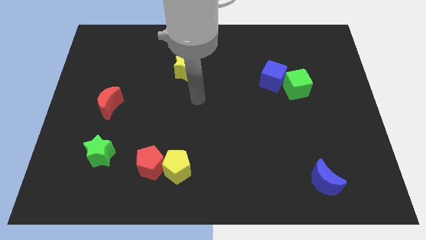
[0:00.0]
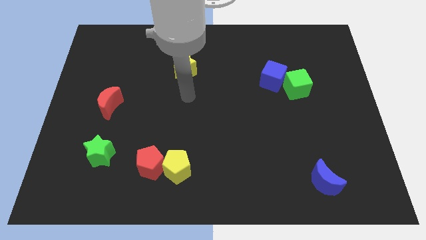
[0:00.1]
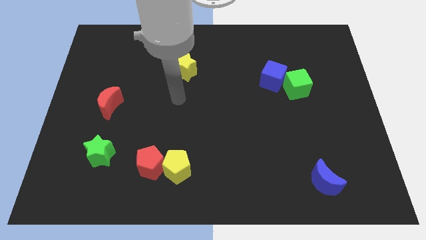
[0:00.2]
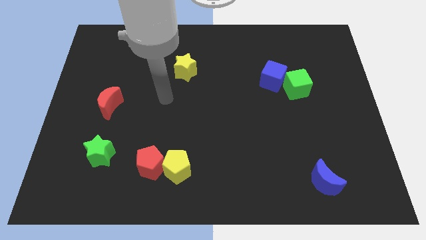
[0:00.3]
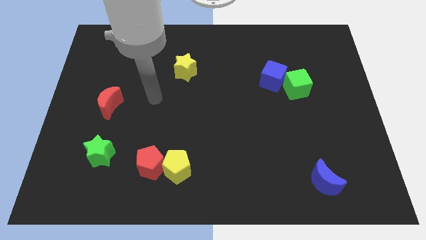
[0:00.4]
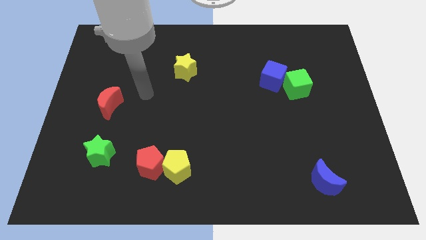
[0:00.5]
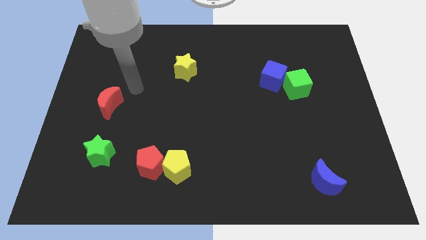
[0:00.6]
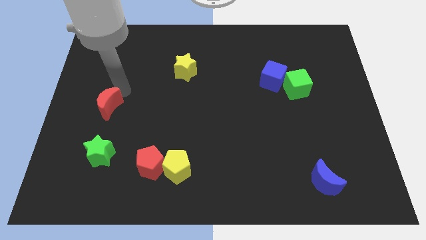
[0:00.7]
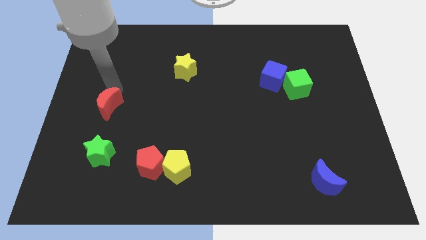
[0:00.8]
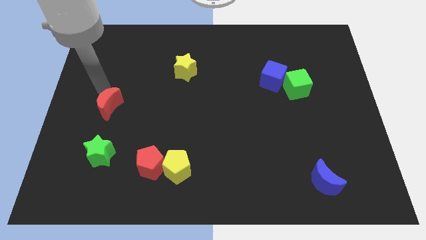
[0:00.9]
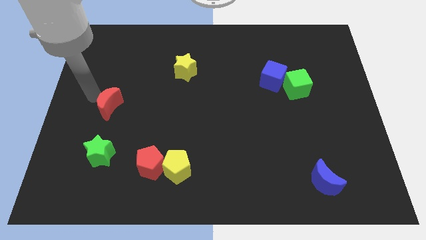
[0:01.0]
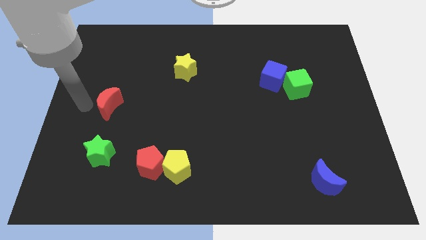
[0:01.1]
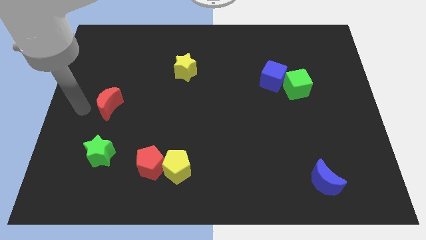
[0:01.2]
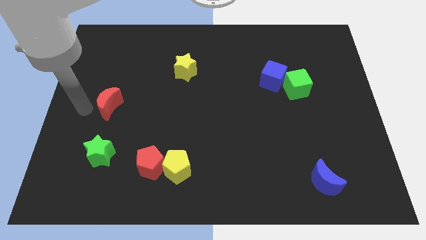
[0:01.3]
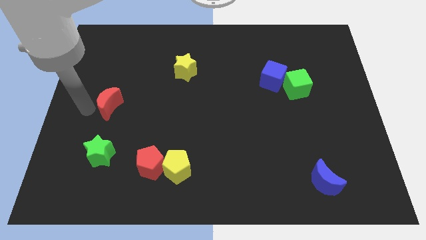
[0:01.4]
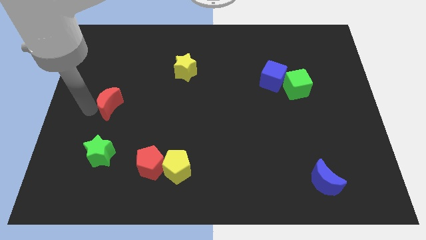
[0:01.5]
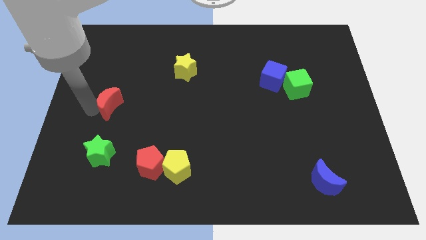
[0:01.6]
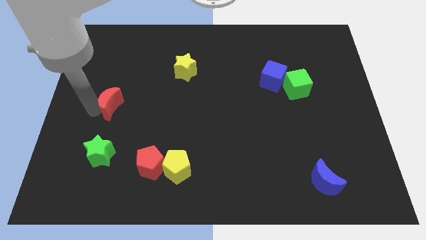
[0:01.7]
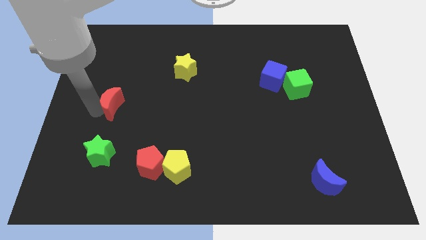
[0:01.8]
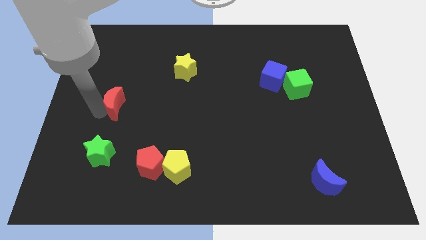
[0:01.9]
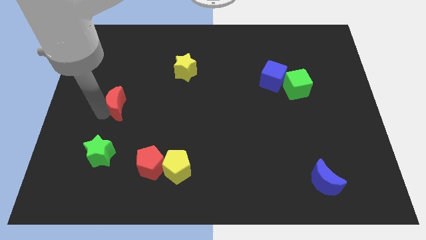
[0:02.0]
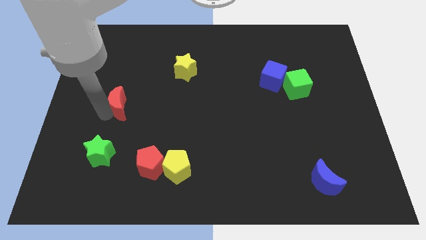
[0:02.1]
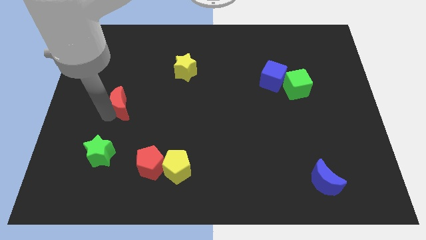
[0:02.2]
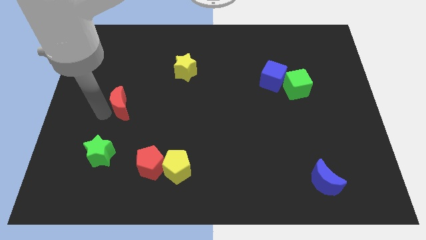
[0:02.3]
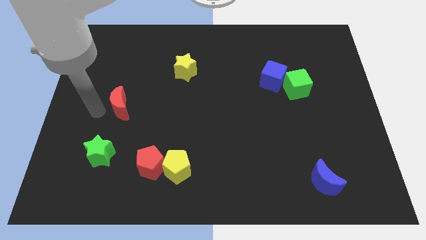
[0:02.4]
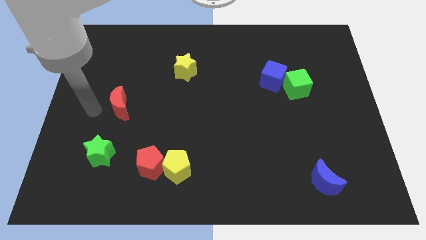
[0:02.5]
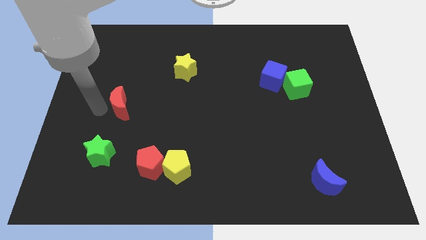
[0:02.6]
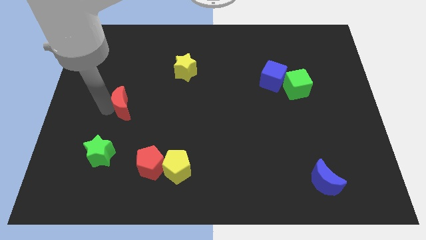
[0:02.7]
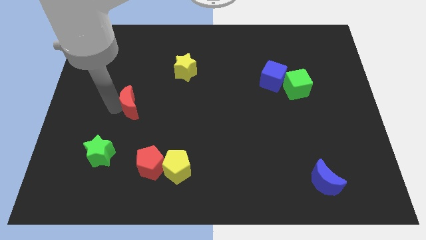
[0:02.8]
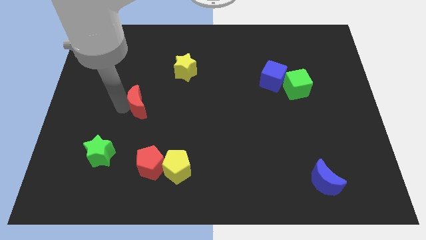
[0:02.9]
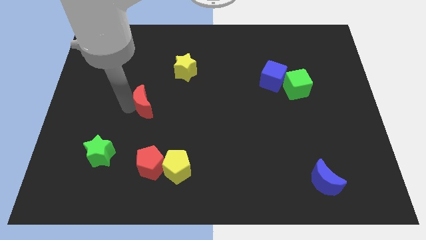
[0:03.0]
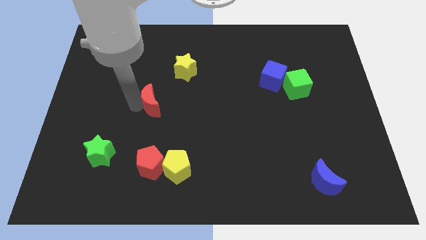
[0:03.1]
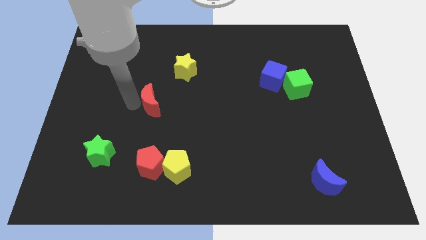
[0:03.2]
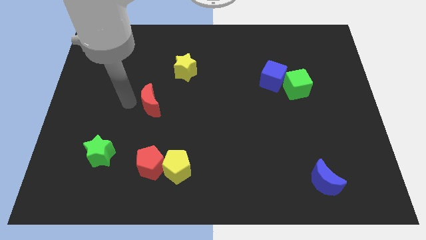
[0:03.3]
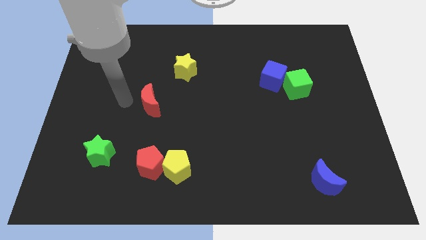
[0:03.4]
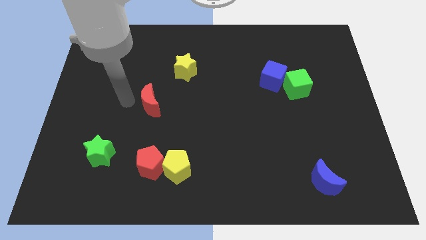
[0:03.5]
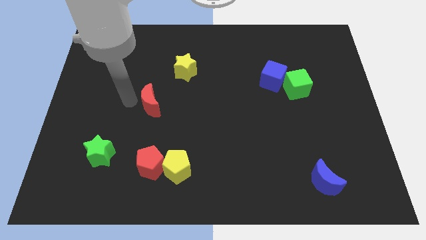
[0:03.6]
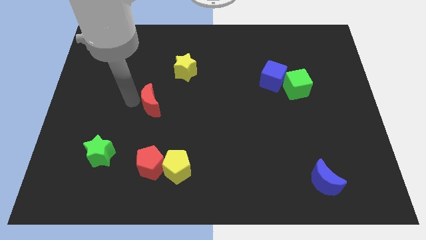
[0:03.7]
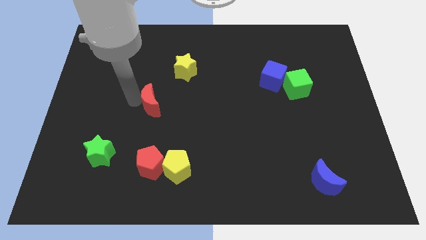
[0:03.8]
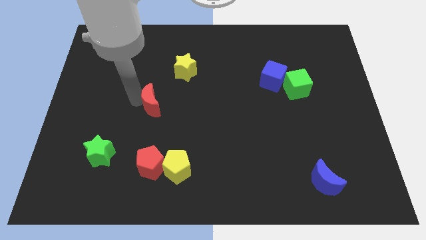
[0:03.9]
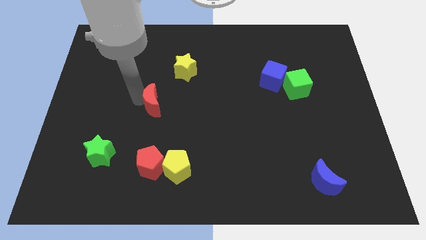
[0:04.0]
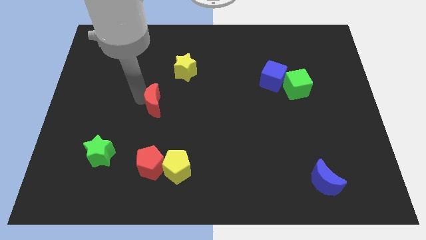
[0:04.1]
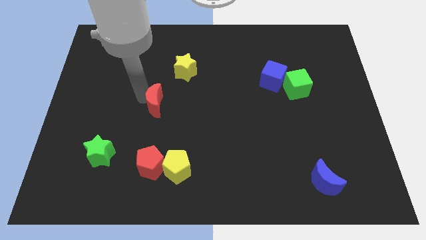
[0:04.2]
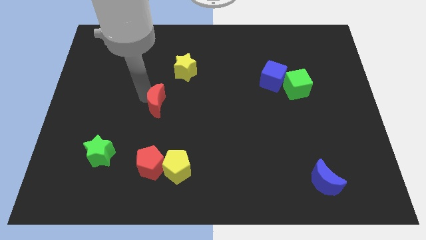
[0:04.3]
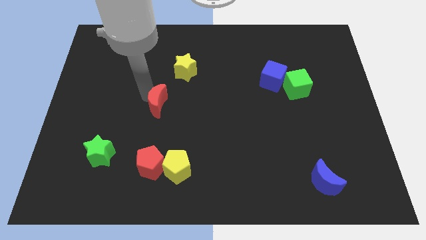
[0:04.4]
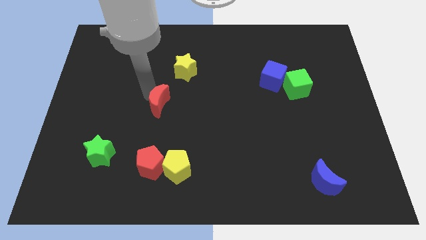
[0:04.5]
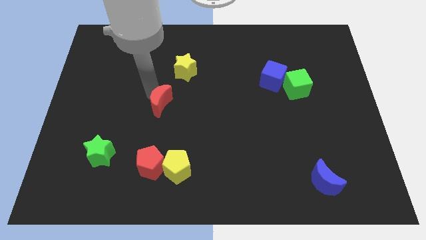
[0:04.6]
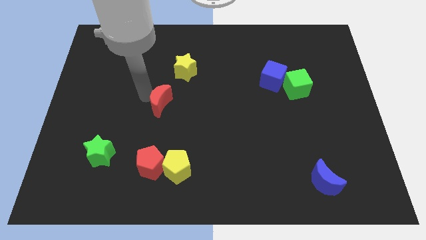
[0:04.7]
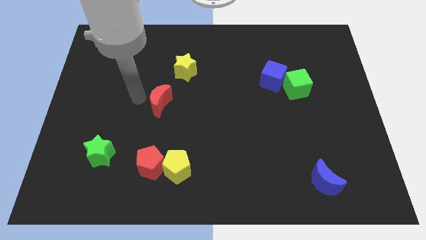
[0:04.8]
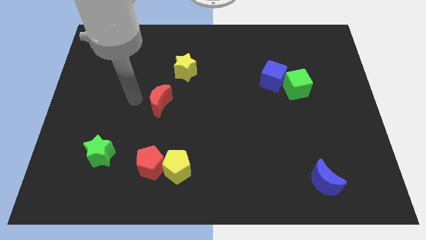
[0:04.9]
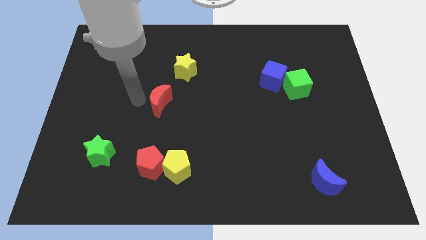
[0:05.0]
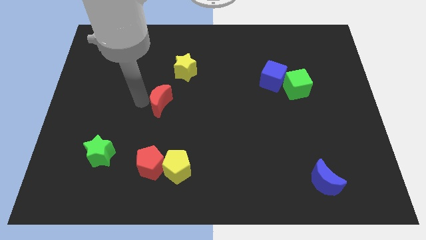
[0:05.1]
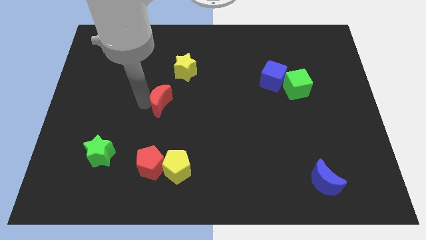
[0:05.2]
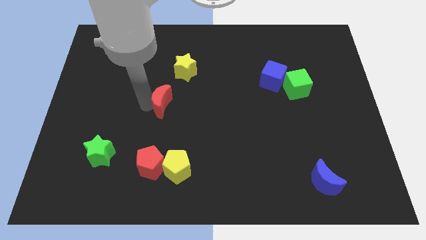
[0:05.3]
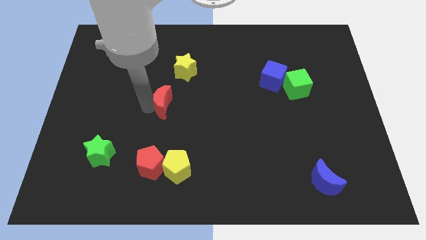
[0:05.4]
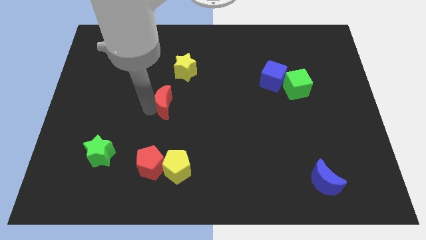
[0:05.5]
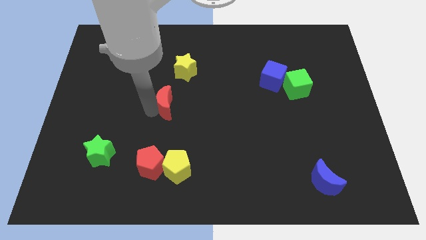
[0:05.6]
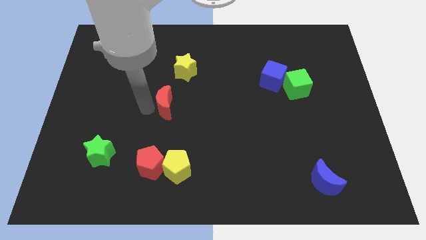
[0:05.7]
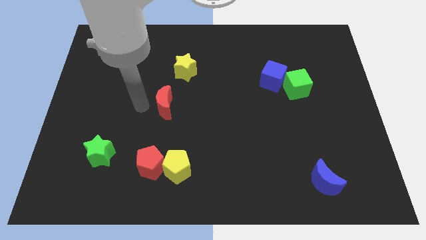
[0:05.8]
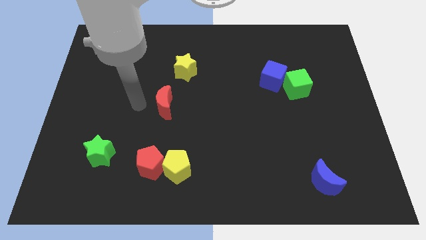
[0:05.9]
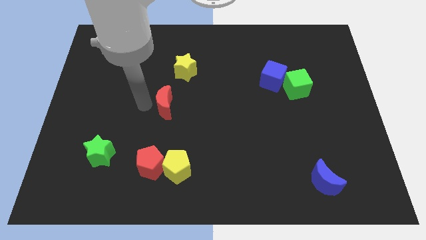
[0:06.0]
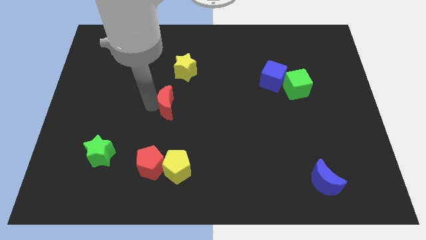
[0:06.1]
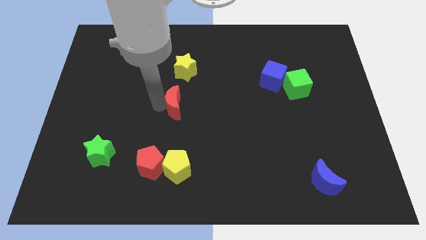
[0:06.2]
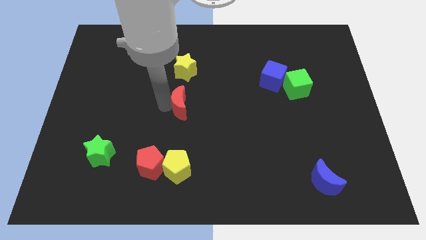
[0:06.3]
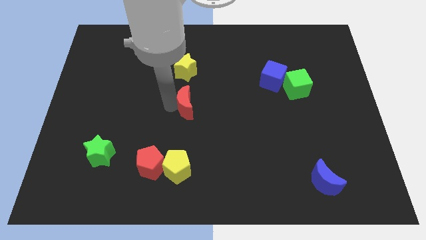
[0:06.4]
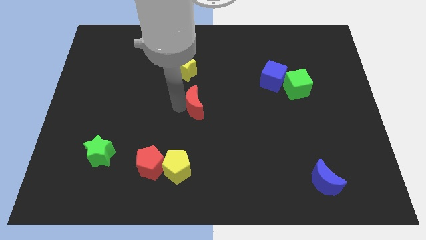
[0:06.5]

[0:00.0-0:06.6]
move the red moon to the right

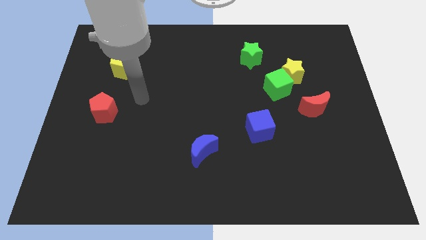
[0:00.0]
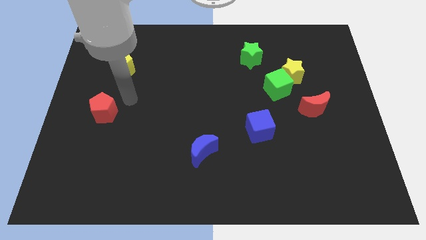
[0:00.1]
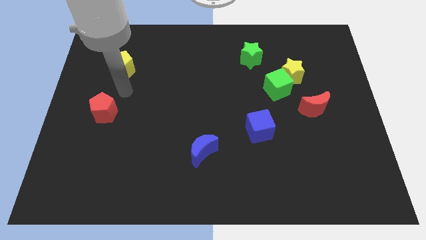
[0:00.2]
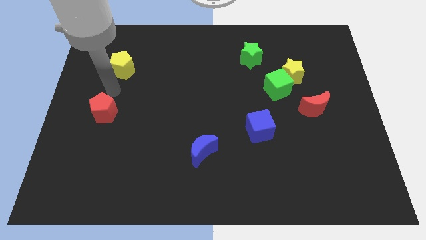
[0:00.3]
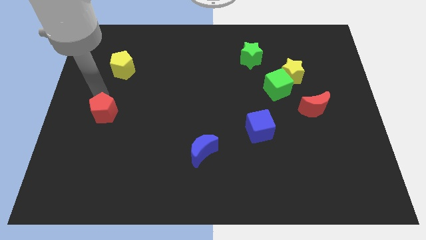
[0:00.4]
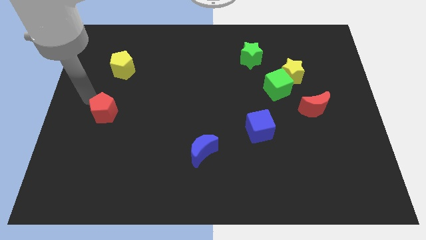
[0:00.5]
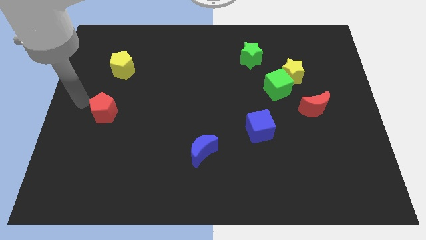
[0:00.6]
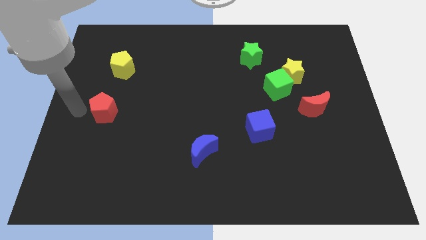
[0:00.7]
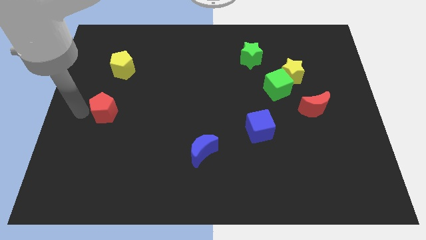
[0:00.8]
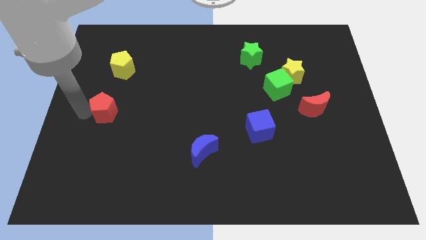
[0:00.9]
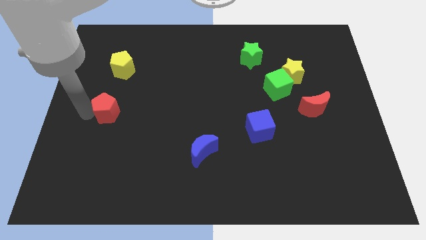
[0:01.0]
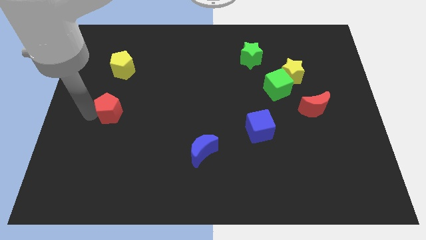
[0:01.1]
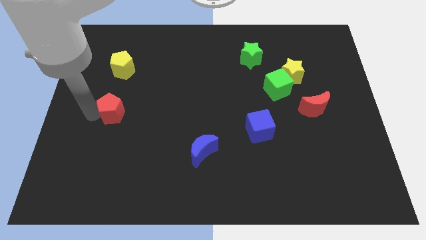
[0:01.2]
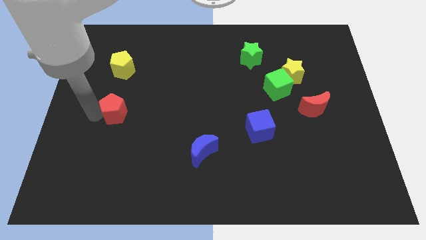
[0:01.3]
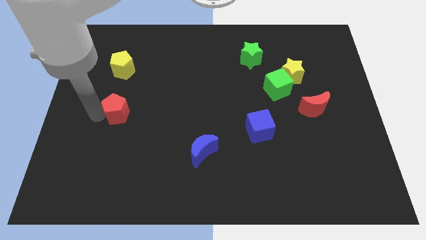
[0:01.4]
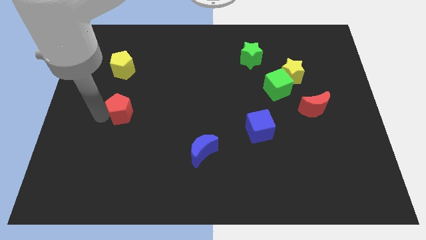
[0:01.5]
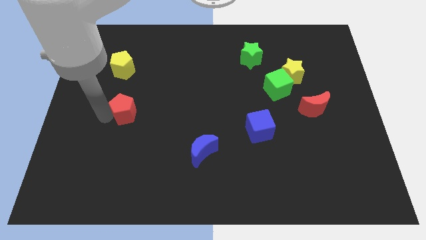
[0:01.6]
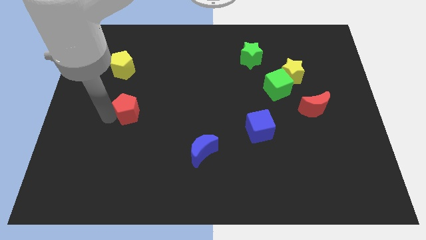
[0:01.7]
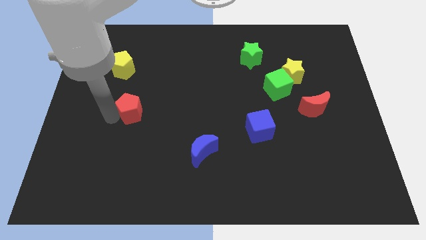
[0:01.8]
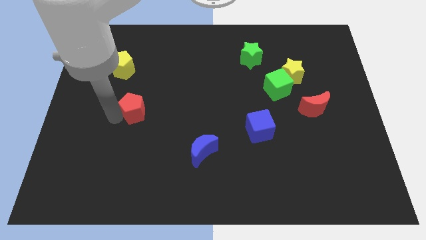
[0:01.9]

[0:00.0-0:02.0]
slide the red pentagon to the right a little

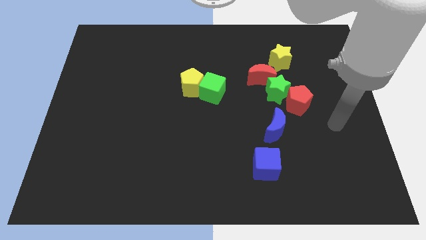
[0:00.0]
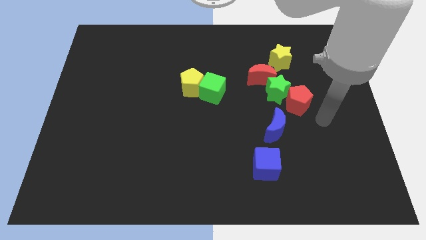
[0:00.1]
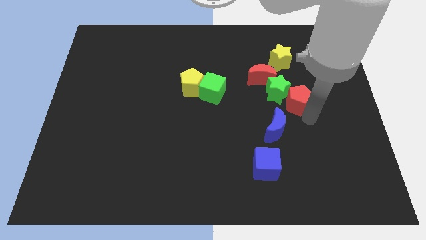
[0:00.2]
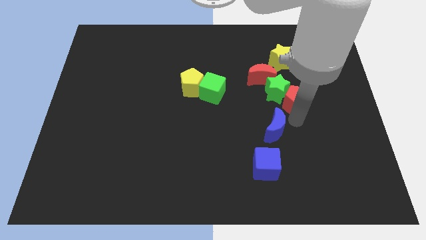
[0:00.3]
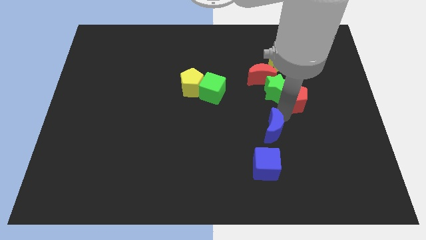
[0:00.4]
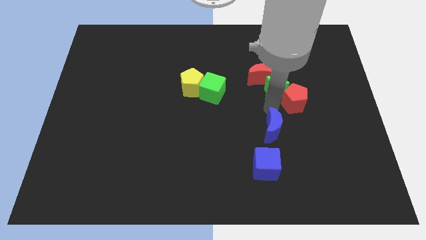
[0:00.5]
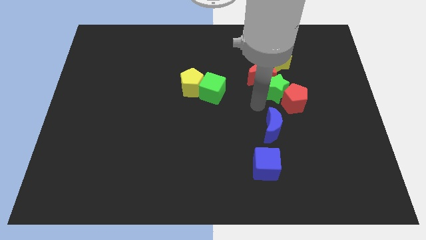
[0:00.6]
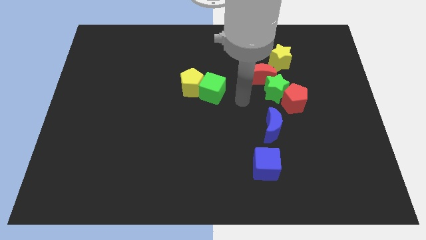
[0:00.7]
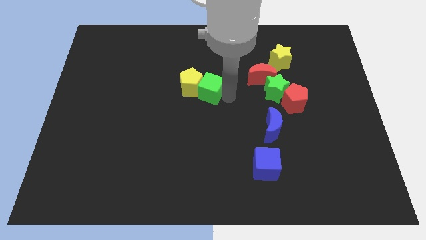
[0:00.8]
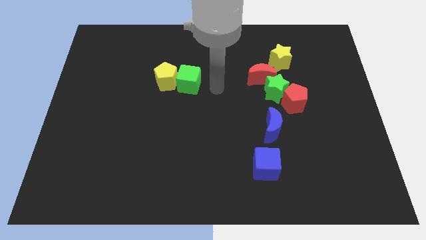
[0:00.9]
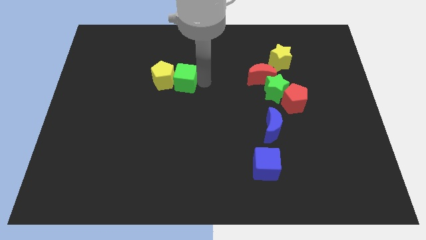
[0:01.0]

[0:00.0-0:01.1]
move the yellow pentagon slightly to the left
